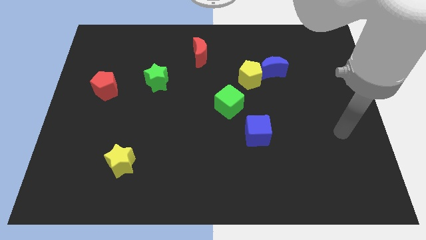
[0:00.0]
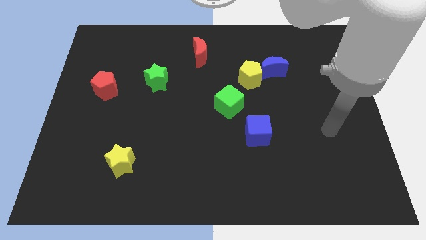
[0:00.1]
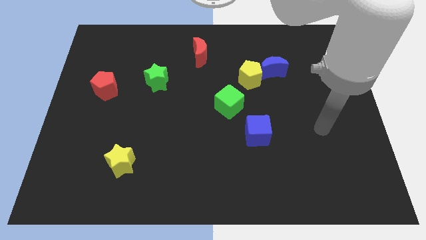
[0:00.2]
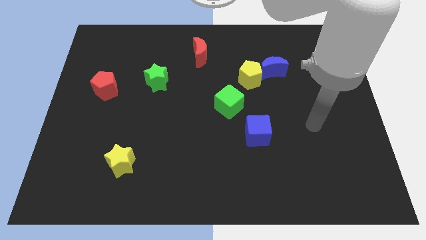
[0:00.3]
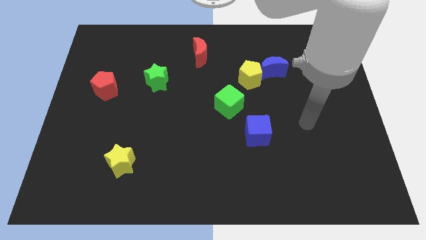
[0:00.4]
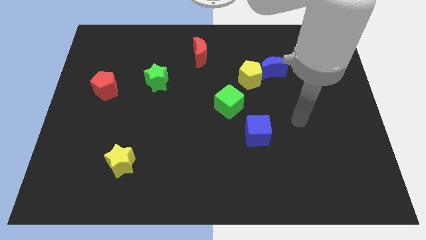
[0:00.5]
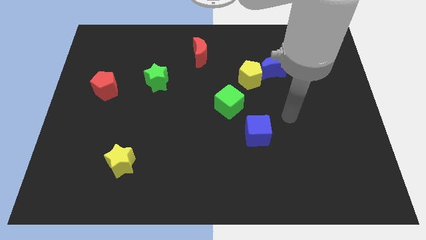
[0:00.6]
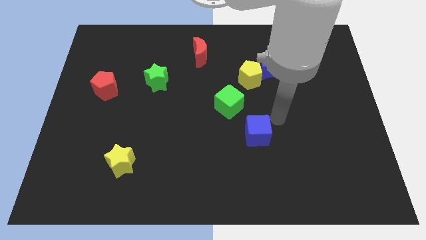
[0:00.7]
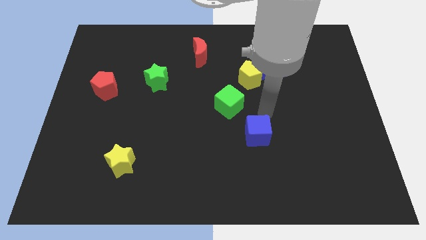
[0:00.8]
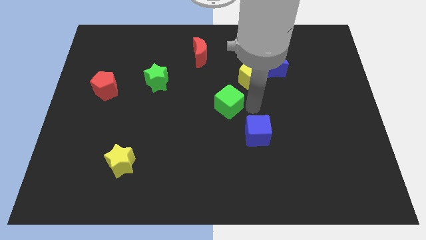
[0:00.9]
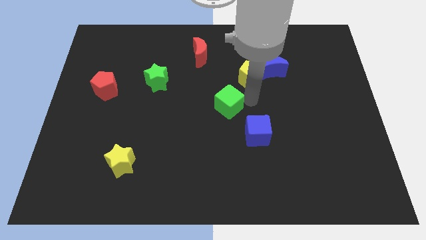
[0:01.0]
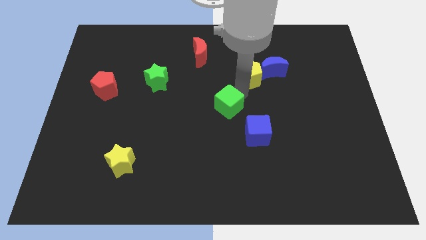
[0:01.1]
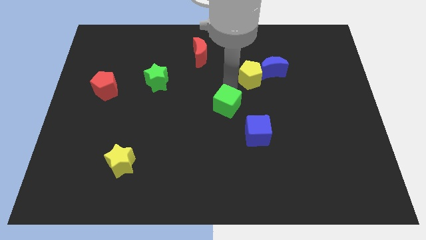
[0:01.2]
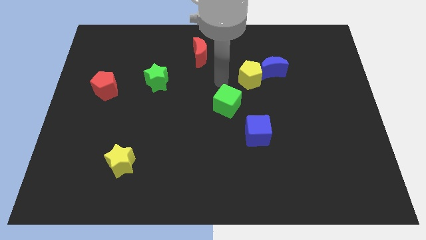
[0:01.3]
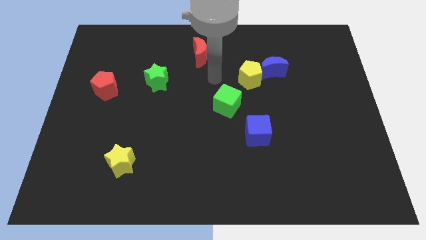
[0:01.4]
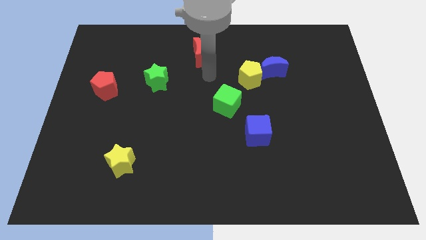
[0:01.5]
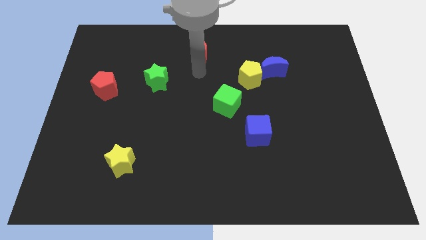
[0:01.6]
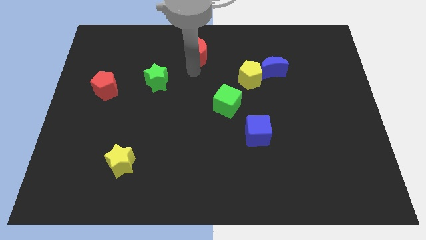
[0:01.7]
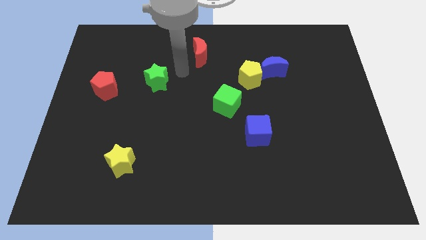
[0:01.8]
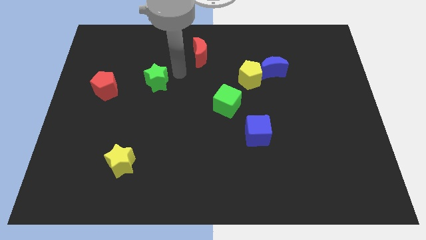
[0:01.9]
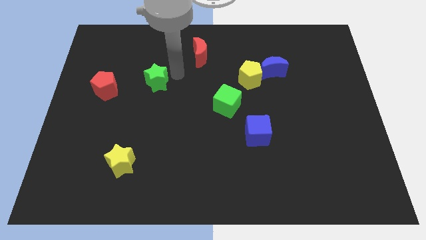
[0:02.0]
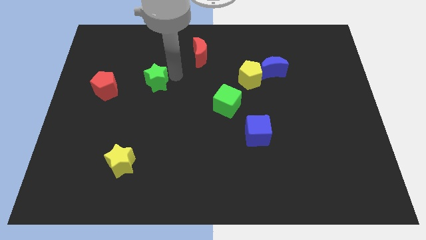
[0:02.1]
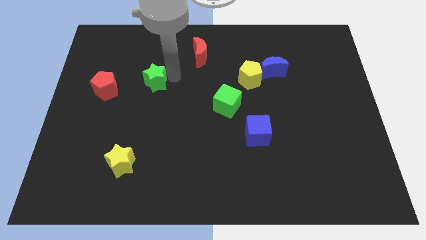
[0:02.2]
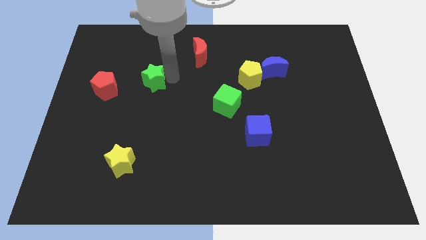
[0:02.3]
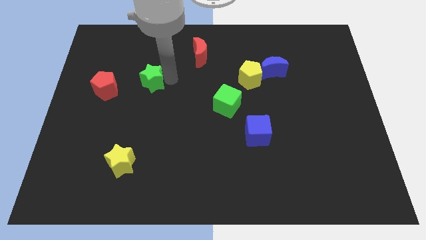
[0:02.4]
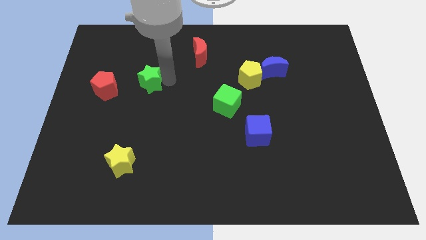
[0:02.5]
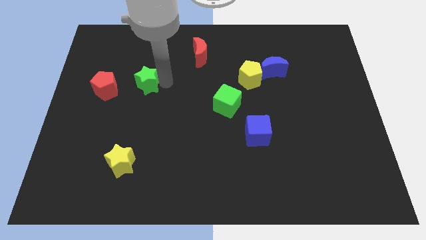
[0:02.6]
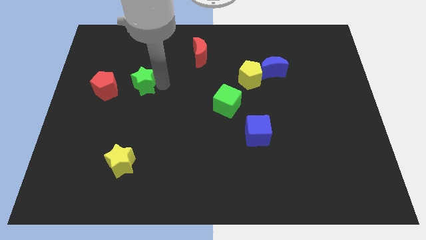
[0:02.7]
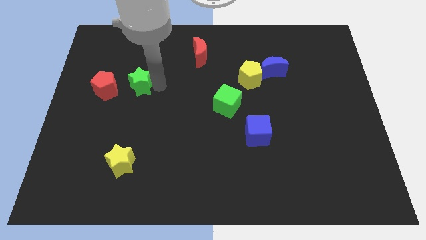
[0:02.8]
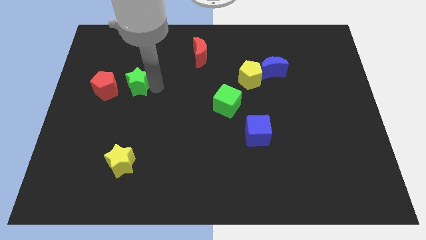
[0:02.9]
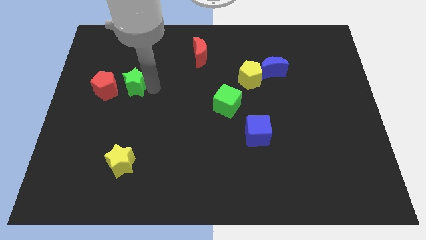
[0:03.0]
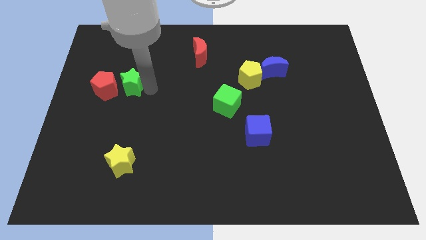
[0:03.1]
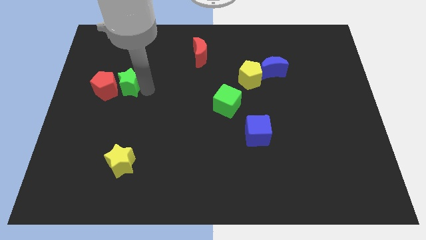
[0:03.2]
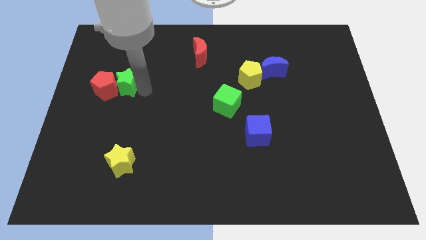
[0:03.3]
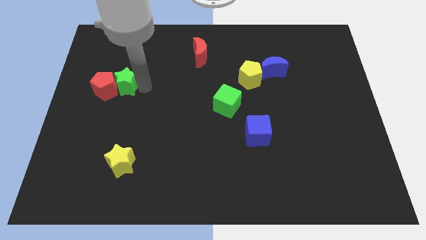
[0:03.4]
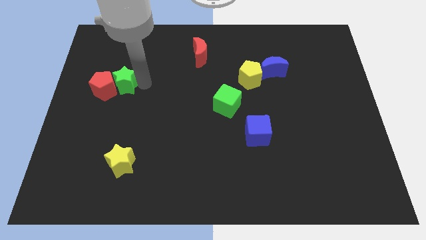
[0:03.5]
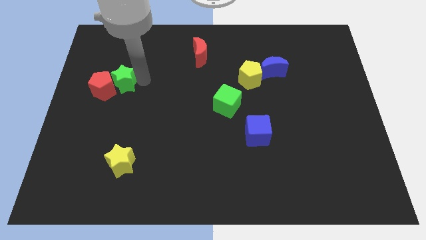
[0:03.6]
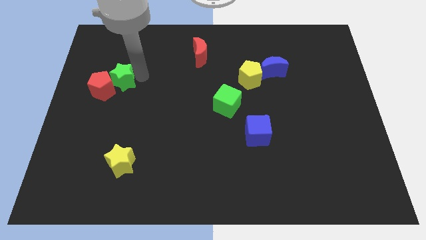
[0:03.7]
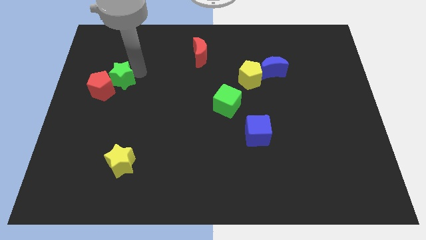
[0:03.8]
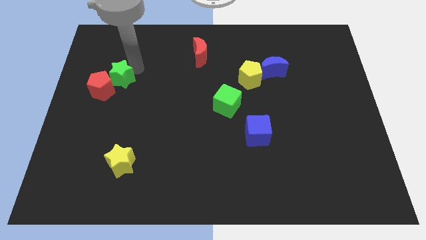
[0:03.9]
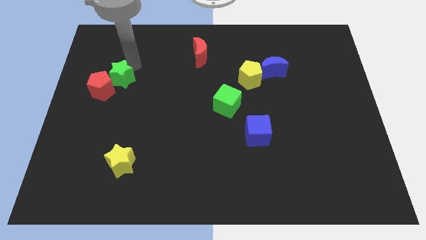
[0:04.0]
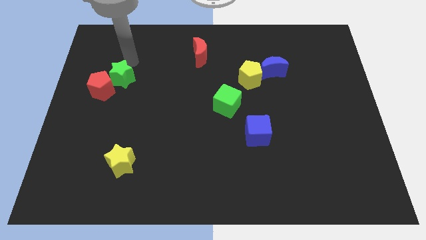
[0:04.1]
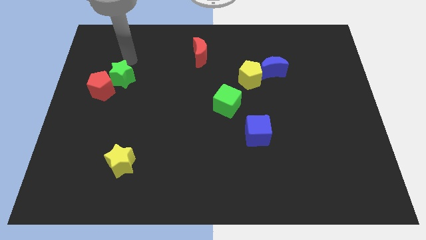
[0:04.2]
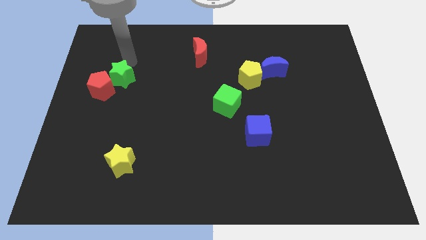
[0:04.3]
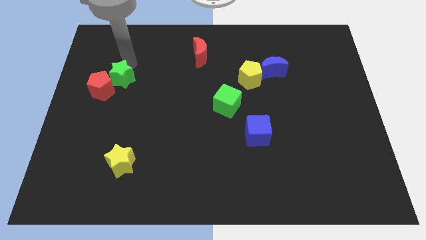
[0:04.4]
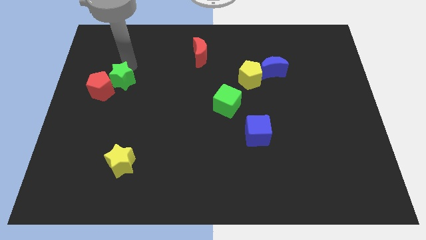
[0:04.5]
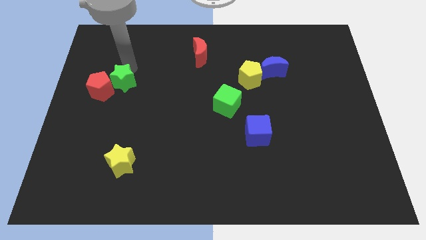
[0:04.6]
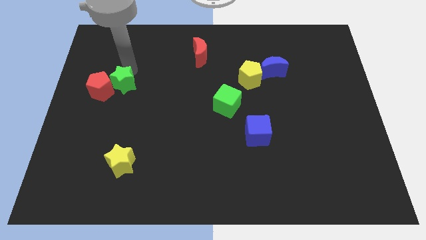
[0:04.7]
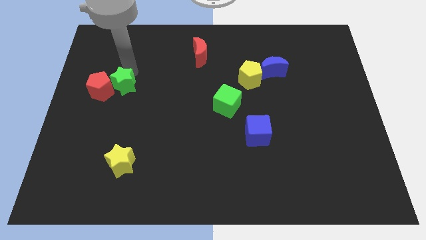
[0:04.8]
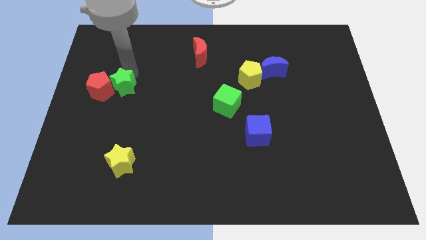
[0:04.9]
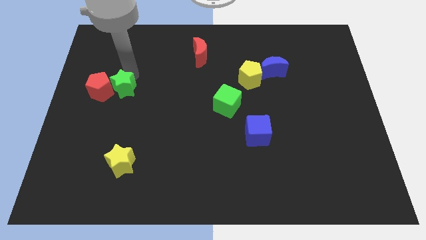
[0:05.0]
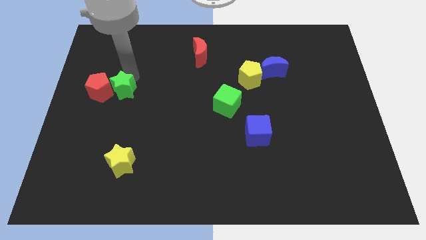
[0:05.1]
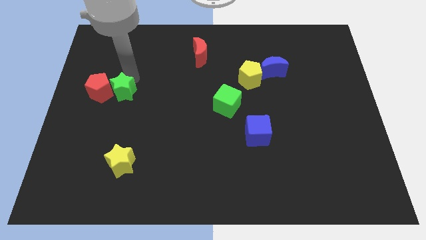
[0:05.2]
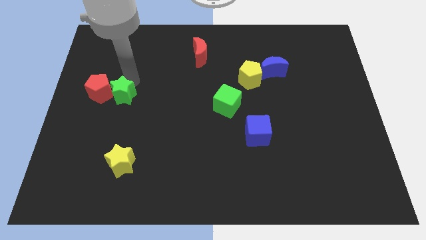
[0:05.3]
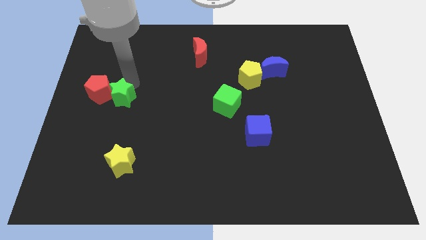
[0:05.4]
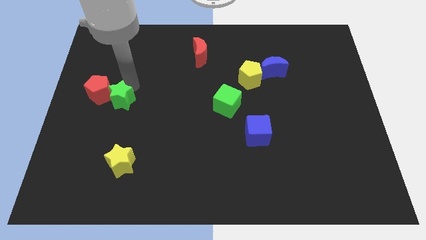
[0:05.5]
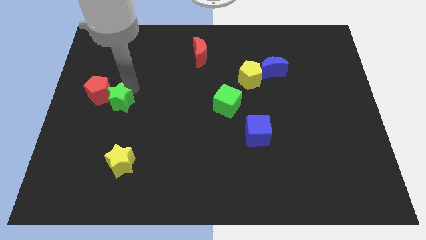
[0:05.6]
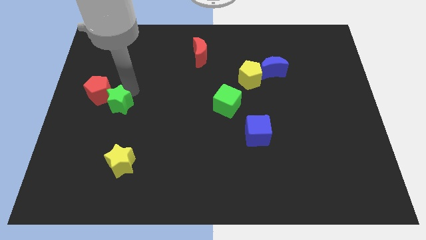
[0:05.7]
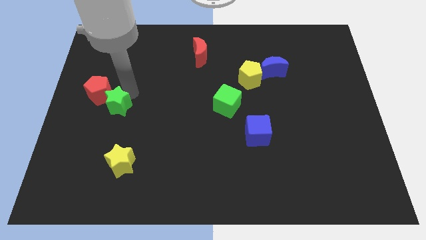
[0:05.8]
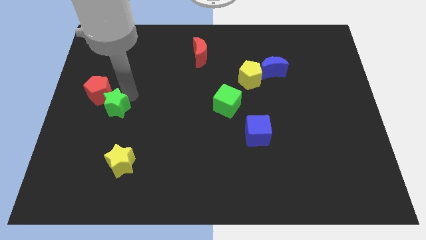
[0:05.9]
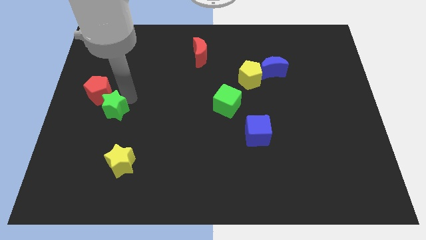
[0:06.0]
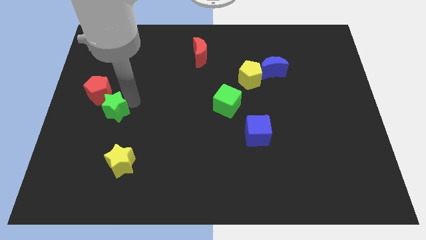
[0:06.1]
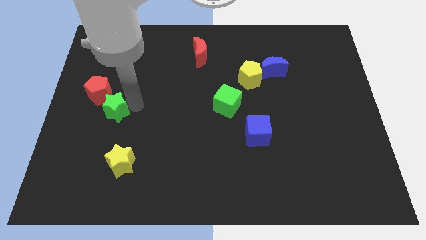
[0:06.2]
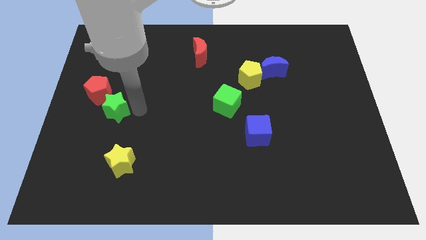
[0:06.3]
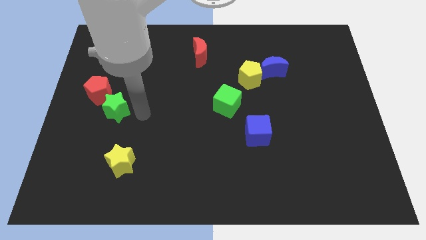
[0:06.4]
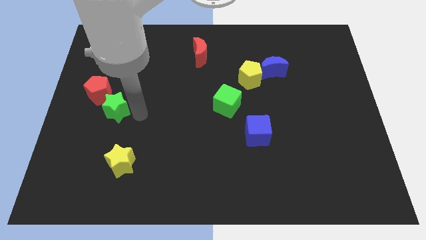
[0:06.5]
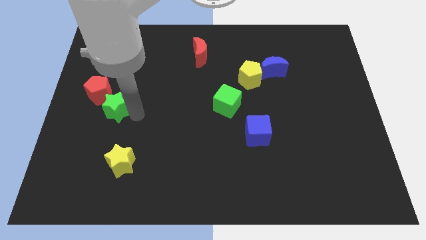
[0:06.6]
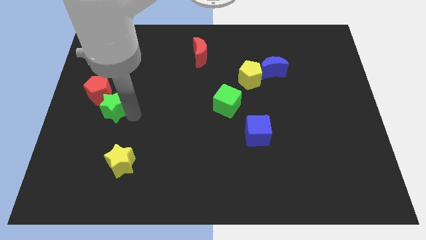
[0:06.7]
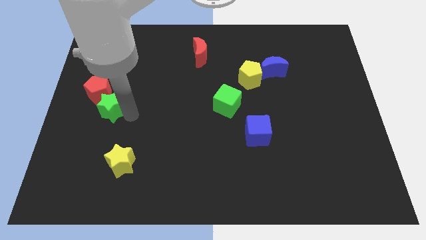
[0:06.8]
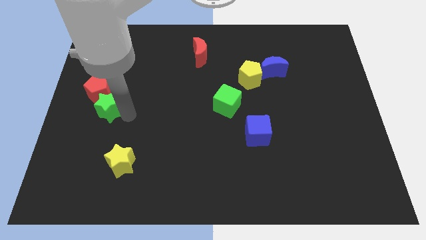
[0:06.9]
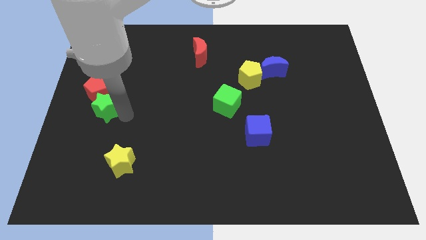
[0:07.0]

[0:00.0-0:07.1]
put the green star to the center left
